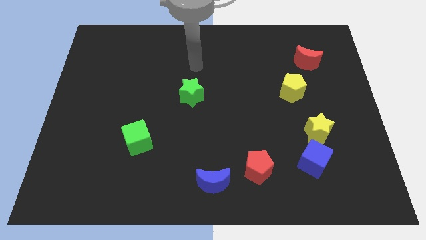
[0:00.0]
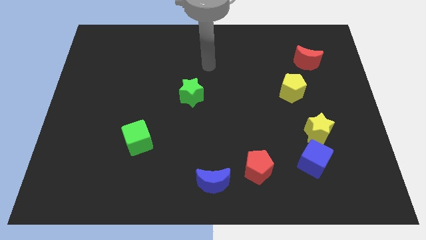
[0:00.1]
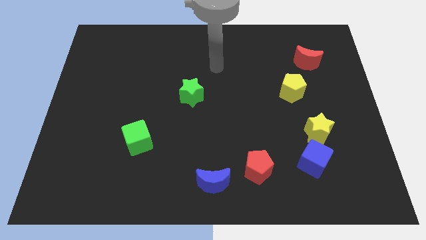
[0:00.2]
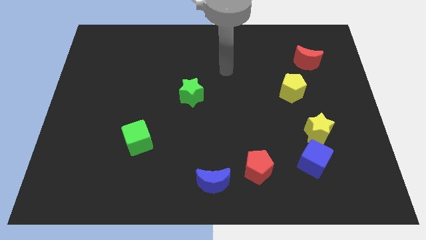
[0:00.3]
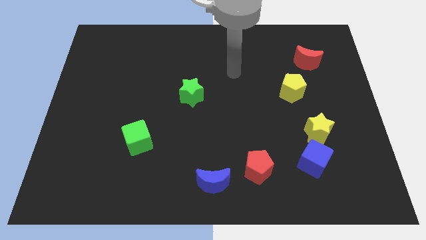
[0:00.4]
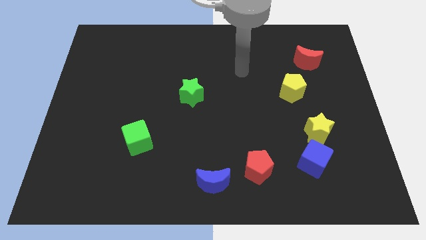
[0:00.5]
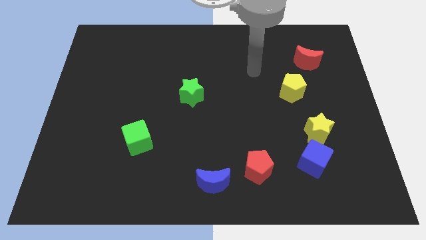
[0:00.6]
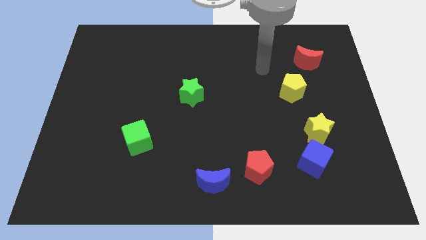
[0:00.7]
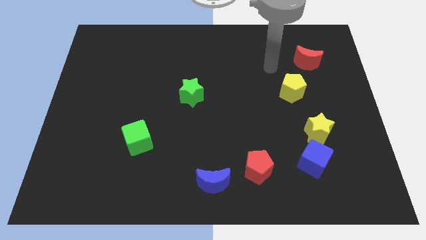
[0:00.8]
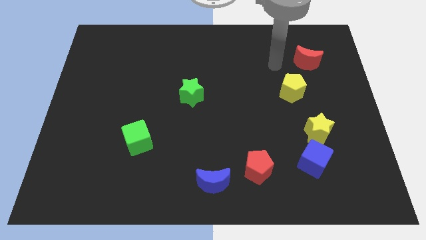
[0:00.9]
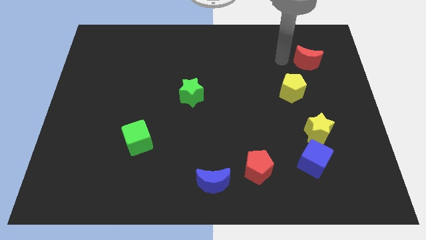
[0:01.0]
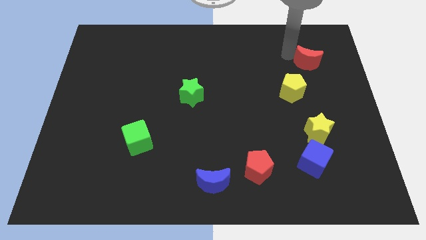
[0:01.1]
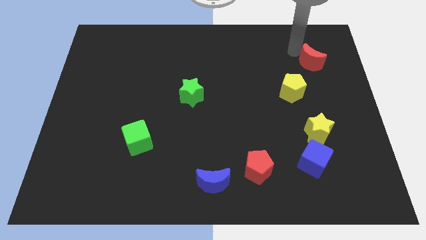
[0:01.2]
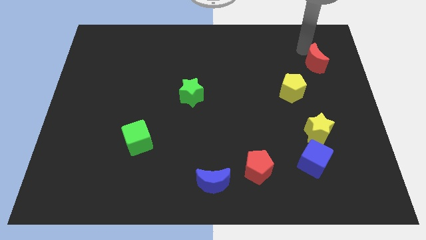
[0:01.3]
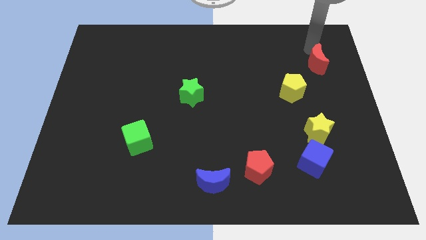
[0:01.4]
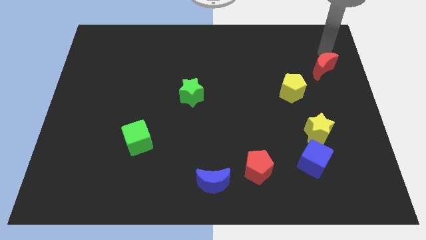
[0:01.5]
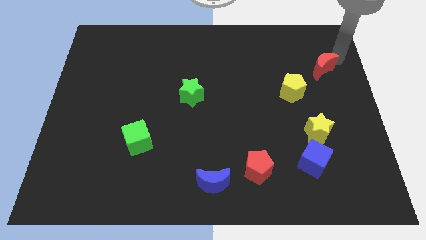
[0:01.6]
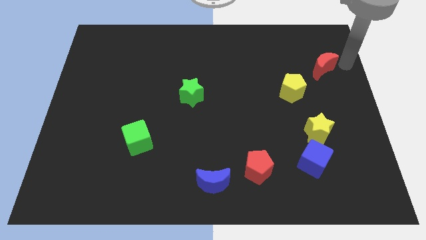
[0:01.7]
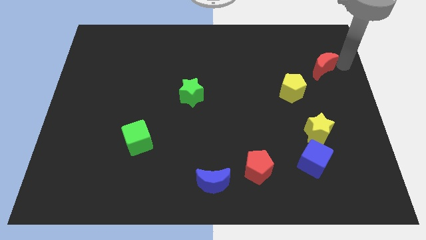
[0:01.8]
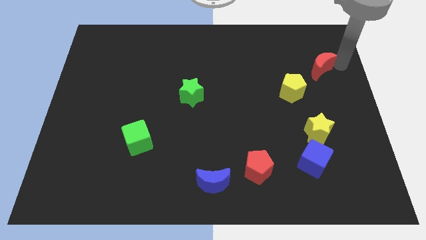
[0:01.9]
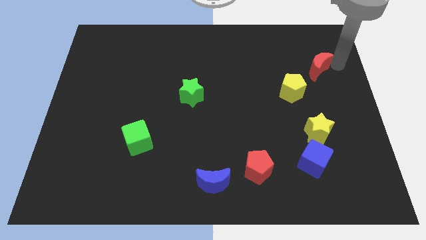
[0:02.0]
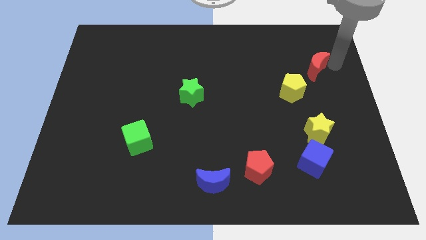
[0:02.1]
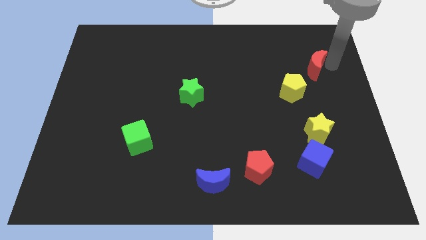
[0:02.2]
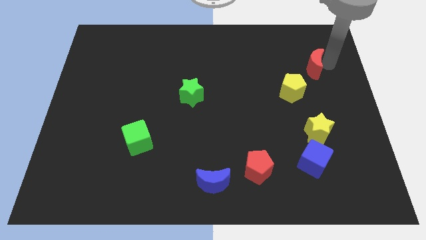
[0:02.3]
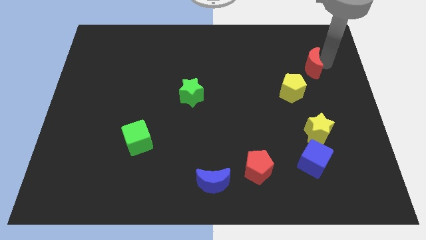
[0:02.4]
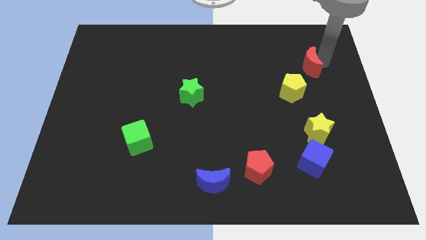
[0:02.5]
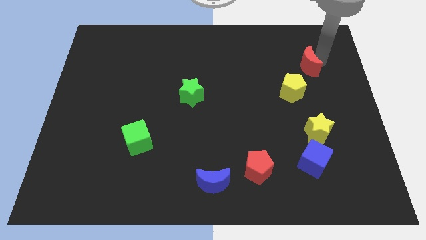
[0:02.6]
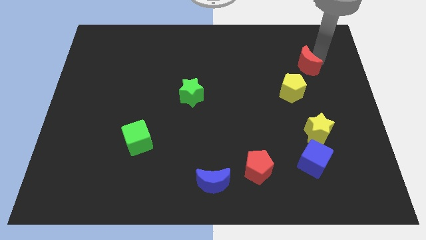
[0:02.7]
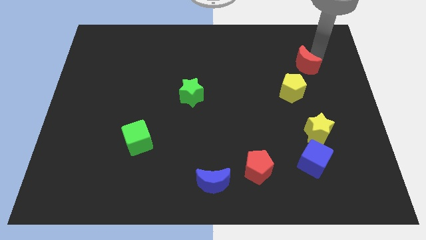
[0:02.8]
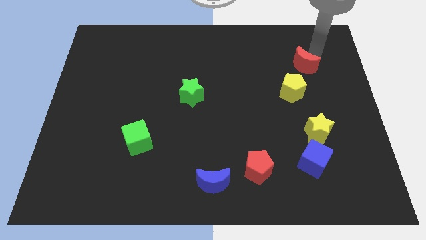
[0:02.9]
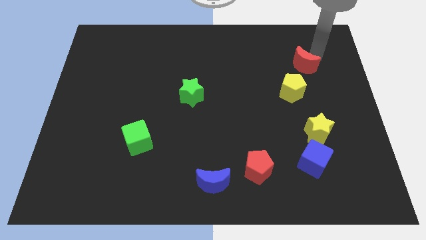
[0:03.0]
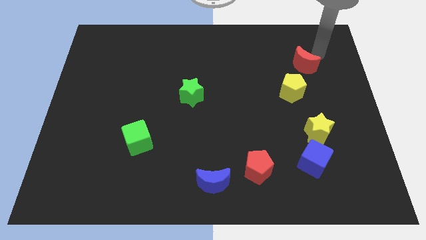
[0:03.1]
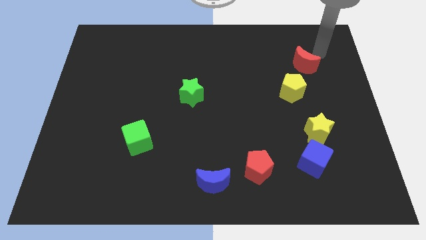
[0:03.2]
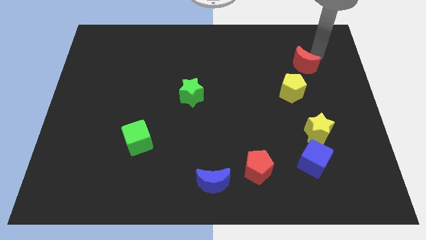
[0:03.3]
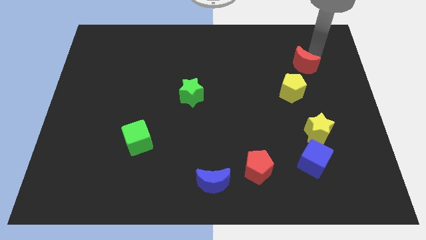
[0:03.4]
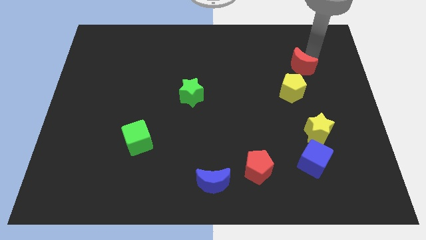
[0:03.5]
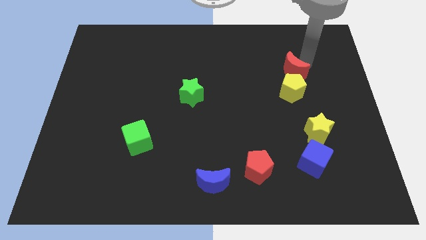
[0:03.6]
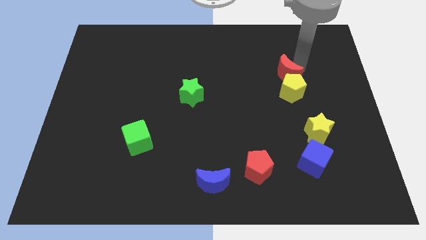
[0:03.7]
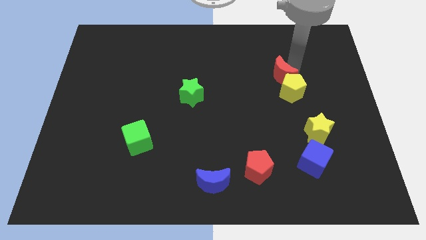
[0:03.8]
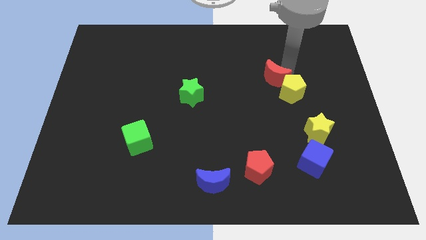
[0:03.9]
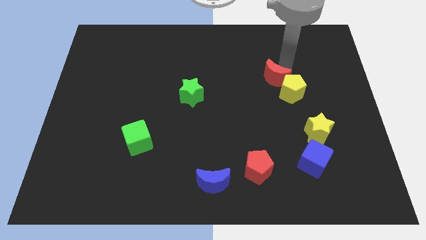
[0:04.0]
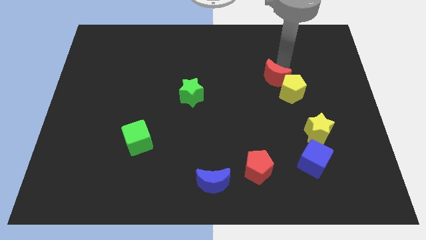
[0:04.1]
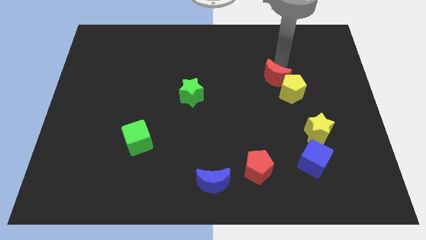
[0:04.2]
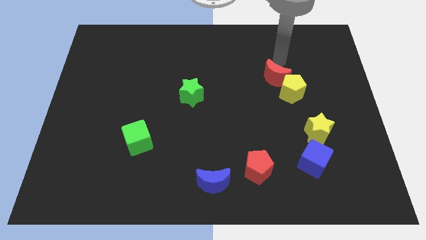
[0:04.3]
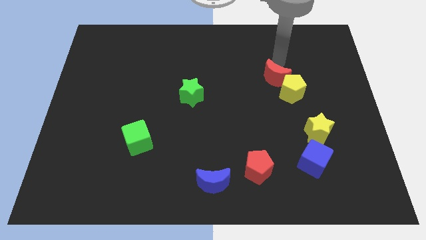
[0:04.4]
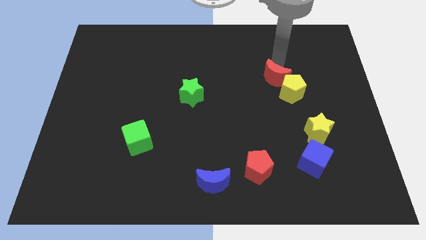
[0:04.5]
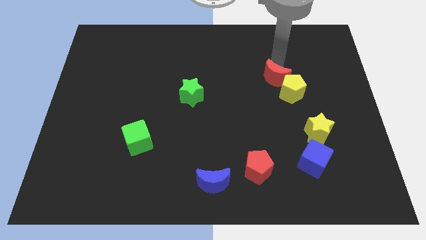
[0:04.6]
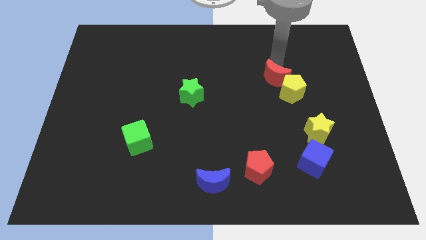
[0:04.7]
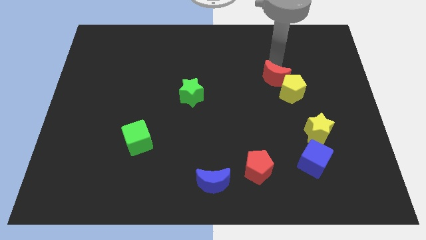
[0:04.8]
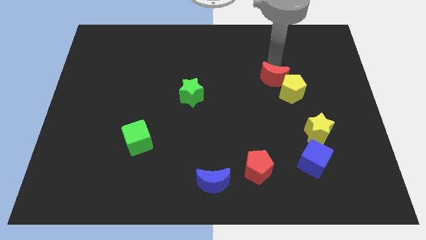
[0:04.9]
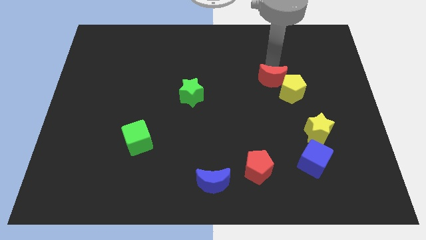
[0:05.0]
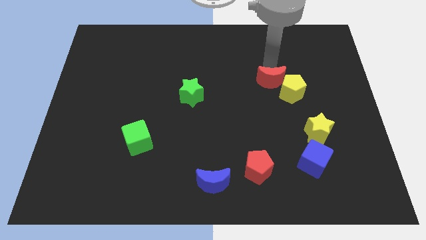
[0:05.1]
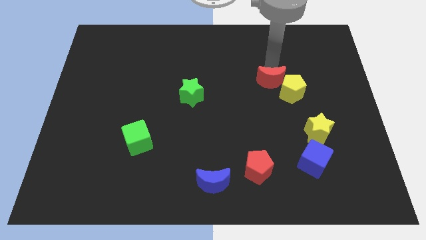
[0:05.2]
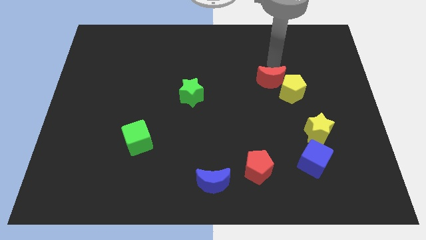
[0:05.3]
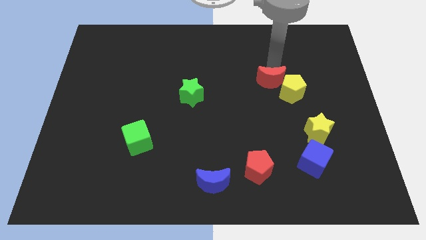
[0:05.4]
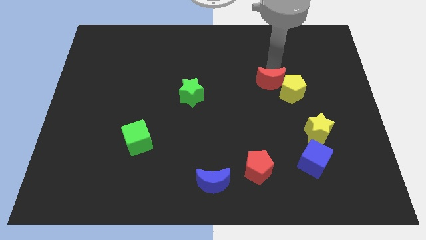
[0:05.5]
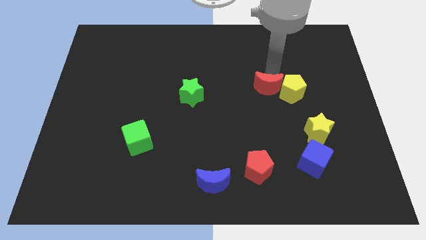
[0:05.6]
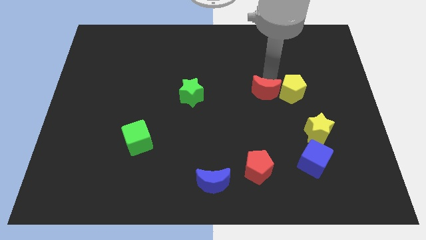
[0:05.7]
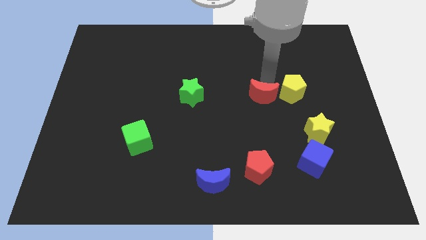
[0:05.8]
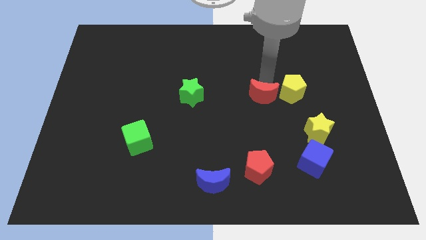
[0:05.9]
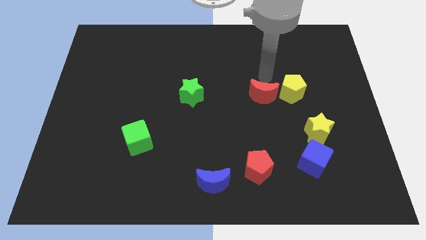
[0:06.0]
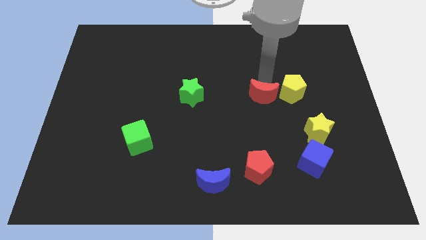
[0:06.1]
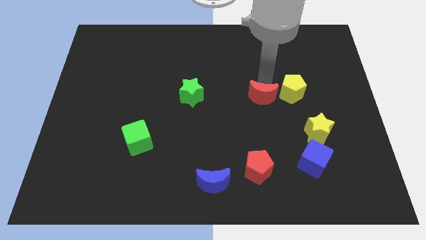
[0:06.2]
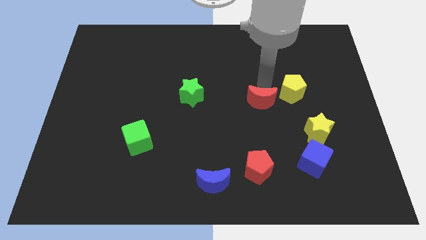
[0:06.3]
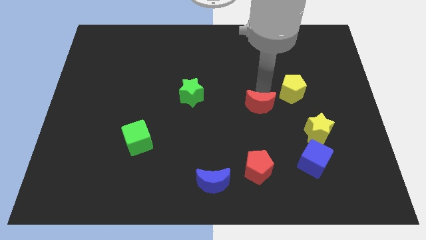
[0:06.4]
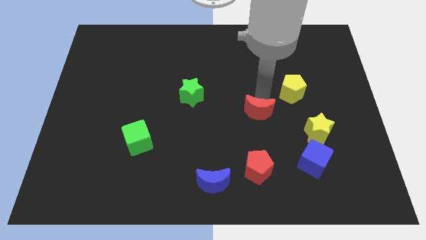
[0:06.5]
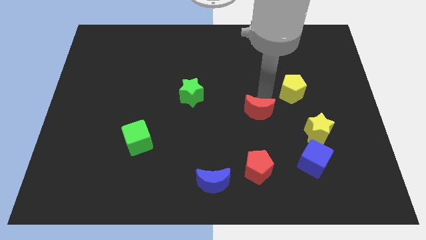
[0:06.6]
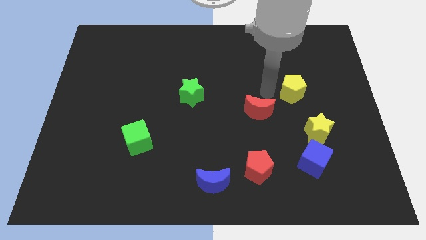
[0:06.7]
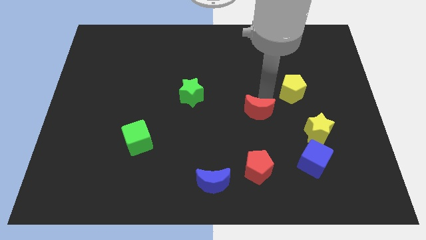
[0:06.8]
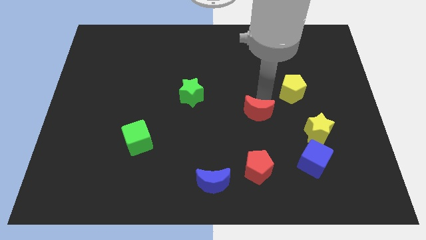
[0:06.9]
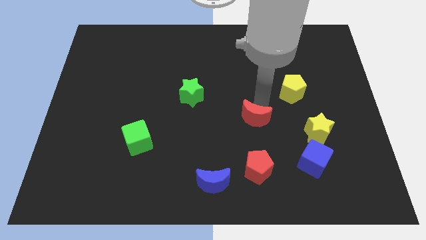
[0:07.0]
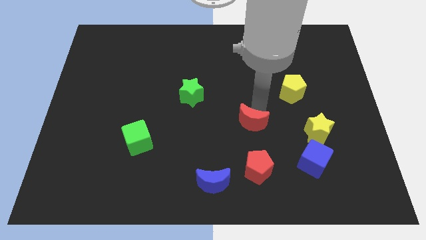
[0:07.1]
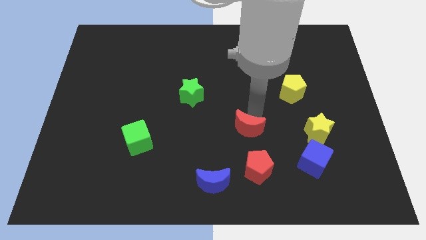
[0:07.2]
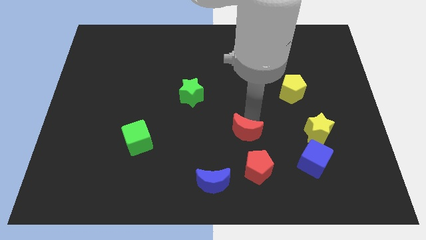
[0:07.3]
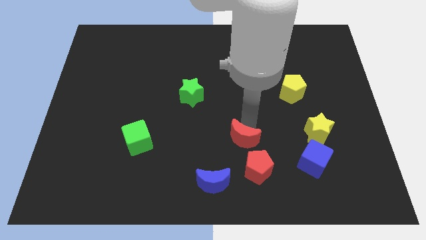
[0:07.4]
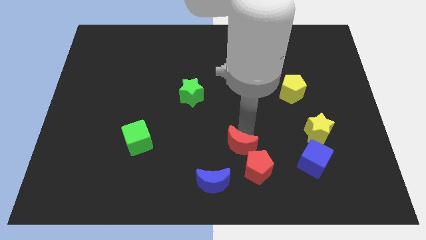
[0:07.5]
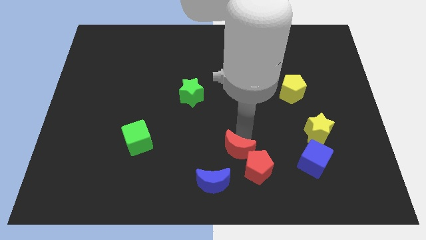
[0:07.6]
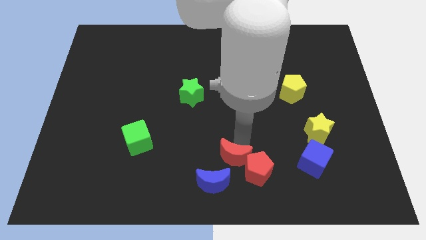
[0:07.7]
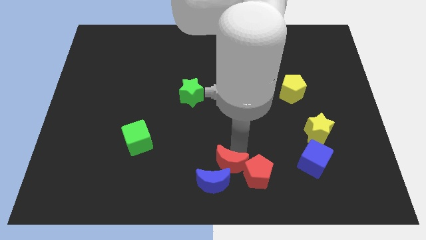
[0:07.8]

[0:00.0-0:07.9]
move the red moon to the blue moon
